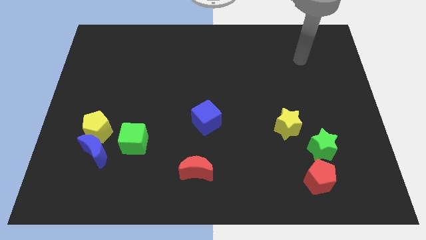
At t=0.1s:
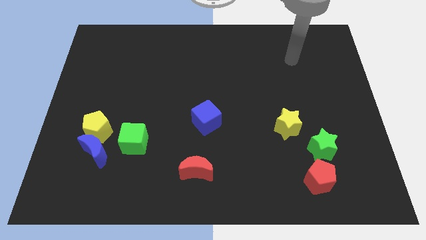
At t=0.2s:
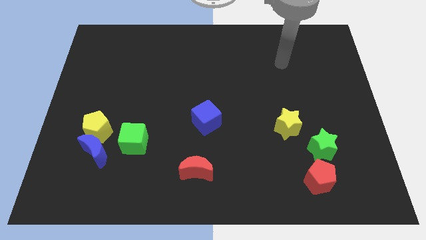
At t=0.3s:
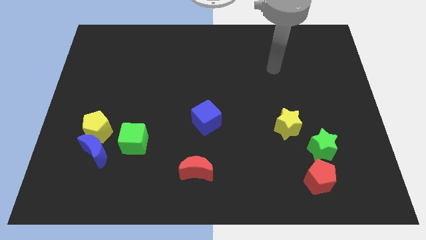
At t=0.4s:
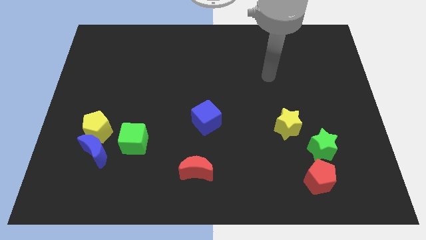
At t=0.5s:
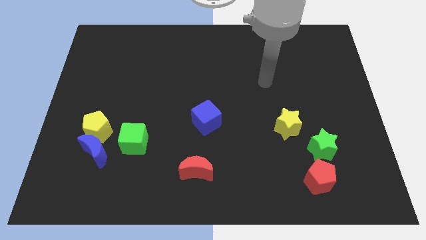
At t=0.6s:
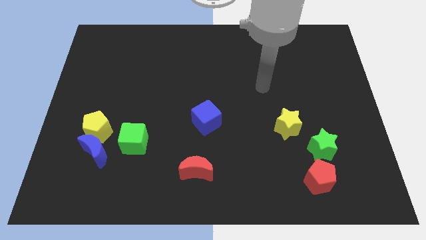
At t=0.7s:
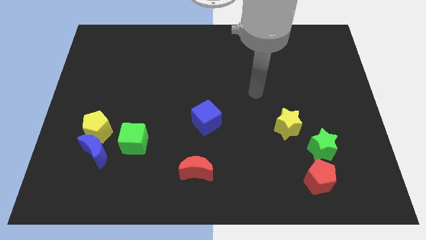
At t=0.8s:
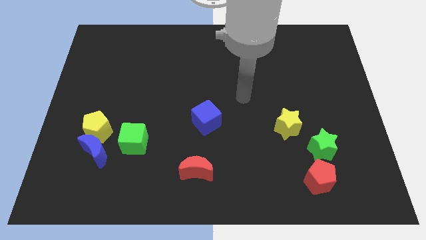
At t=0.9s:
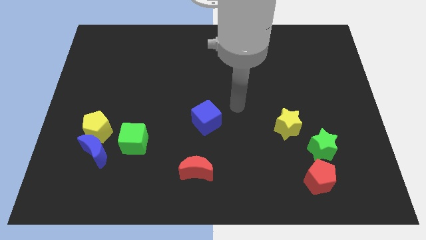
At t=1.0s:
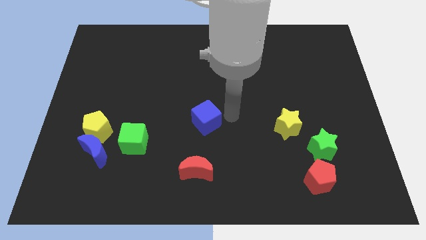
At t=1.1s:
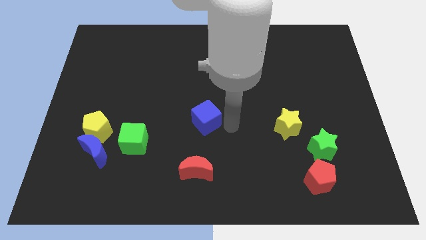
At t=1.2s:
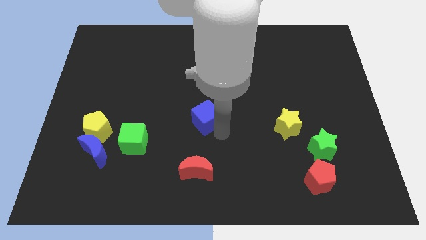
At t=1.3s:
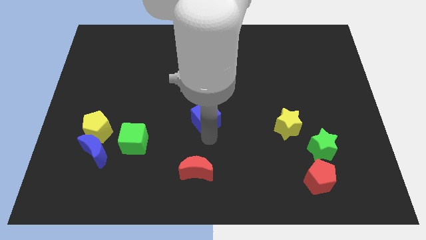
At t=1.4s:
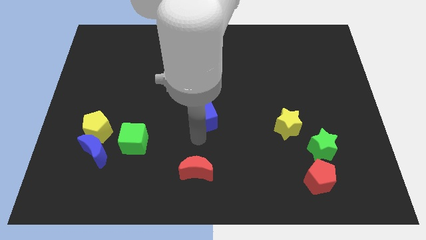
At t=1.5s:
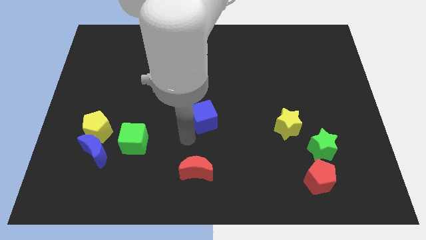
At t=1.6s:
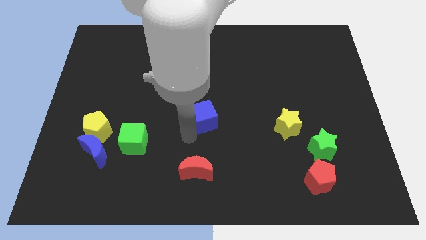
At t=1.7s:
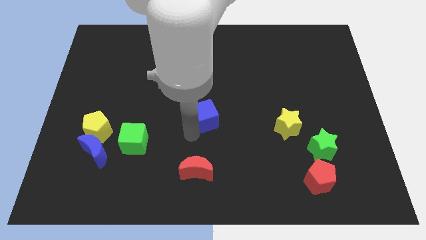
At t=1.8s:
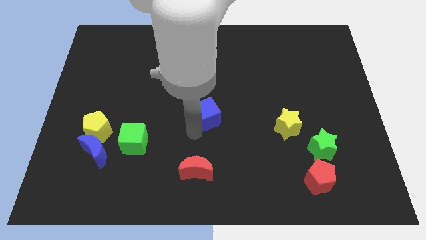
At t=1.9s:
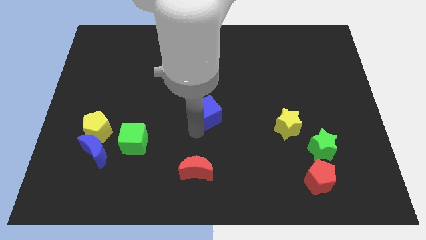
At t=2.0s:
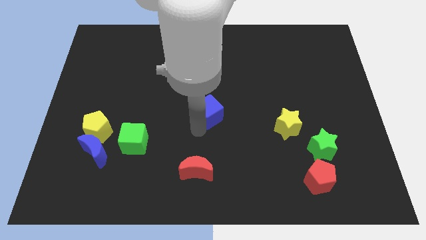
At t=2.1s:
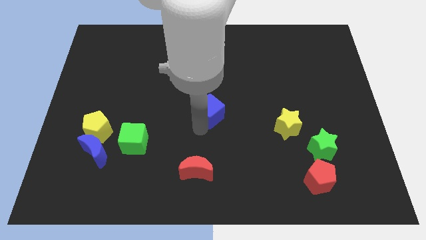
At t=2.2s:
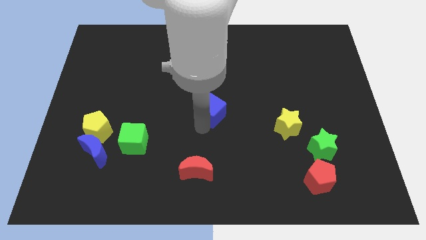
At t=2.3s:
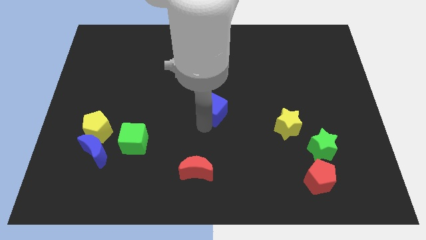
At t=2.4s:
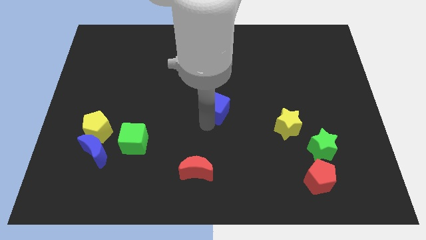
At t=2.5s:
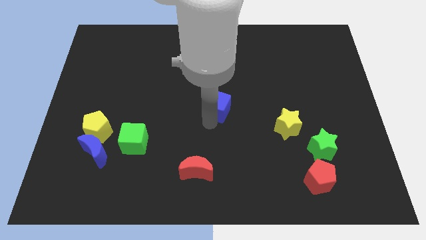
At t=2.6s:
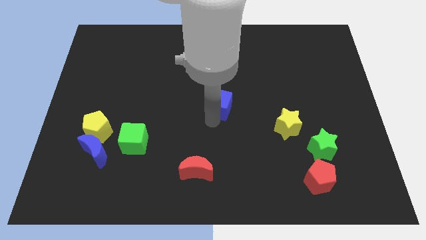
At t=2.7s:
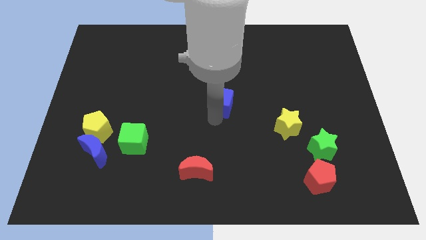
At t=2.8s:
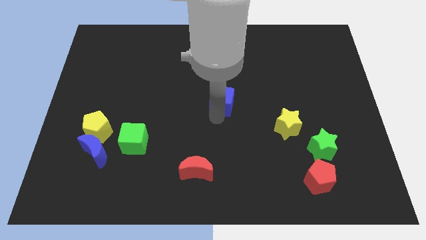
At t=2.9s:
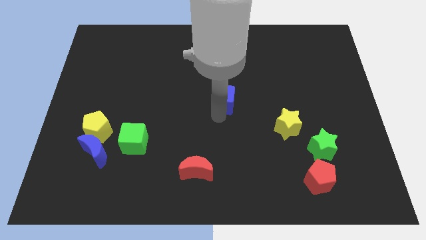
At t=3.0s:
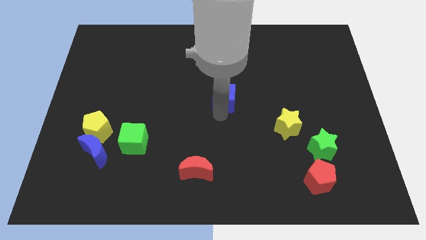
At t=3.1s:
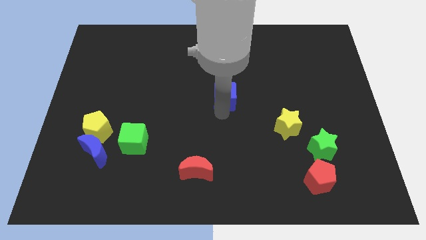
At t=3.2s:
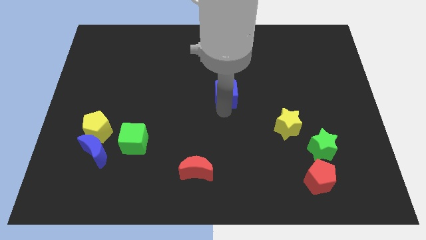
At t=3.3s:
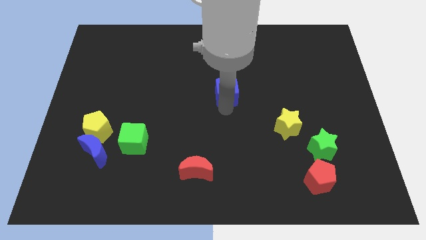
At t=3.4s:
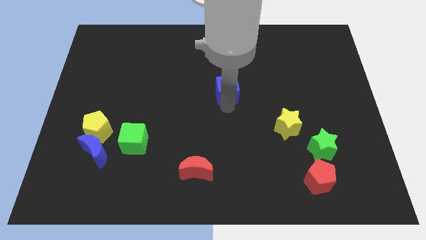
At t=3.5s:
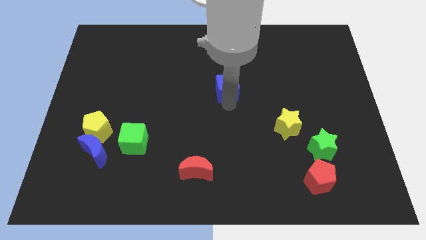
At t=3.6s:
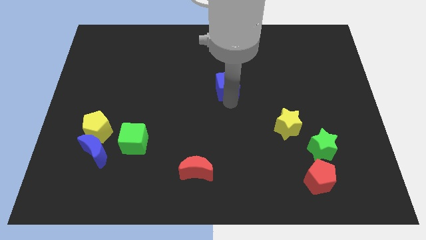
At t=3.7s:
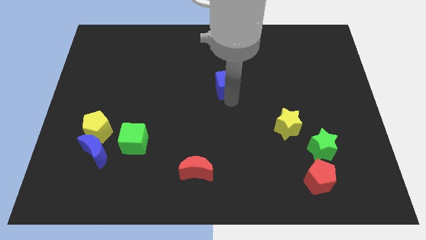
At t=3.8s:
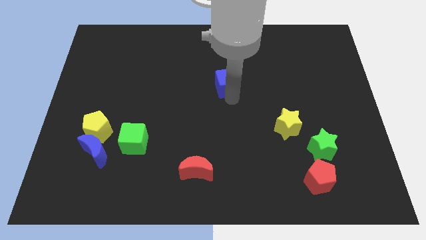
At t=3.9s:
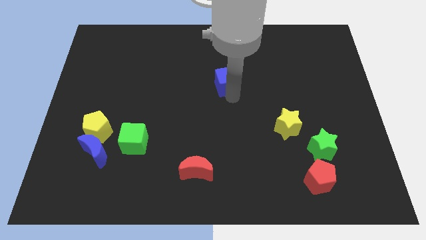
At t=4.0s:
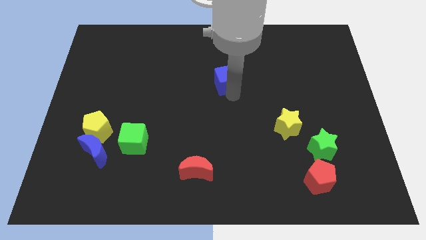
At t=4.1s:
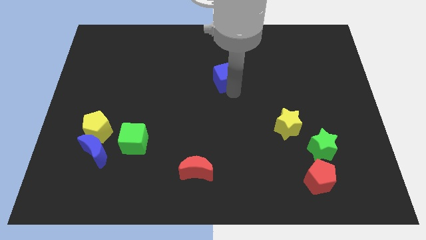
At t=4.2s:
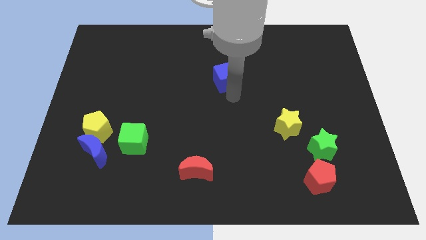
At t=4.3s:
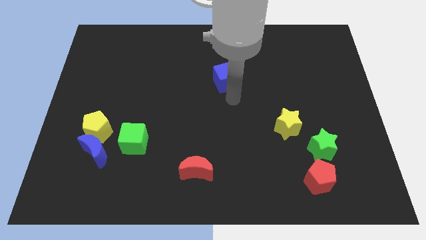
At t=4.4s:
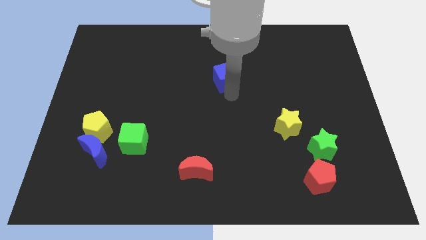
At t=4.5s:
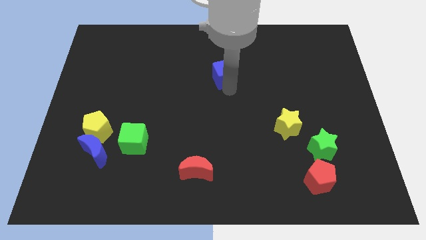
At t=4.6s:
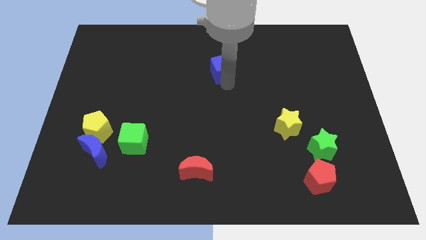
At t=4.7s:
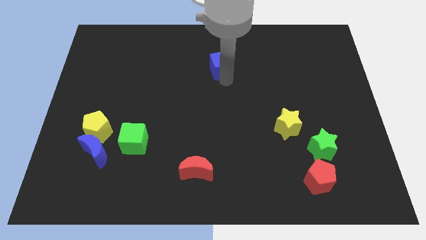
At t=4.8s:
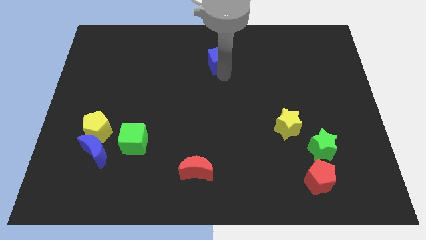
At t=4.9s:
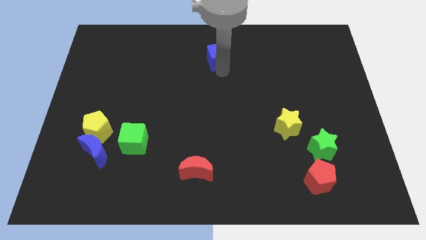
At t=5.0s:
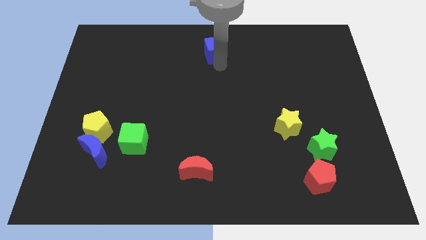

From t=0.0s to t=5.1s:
put the blue cube to the top side
